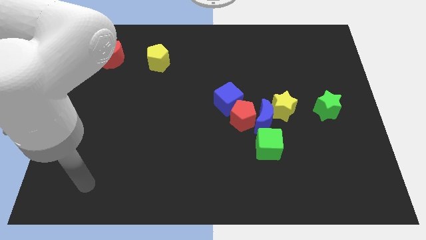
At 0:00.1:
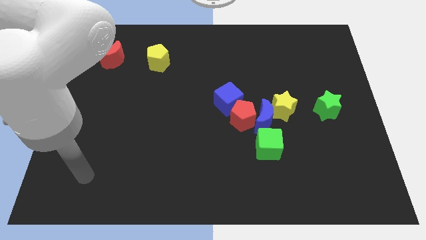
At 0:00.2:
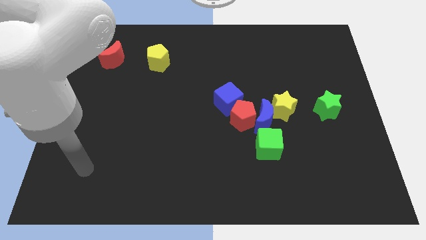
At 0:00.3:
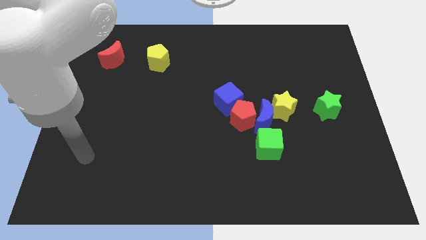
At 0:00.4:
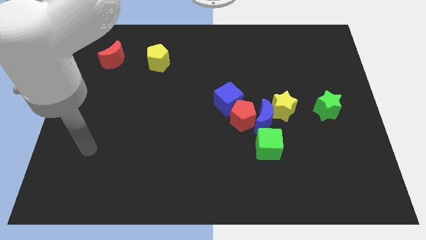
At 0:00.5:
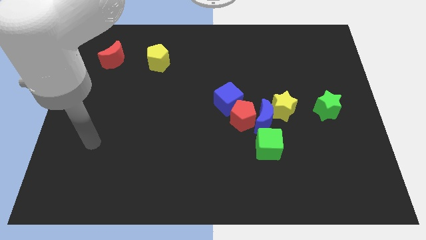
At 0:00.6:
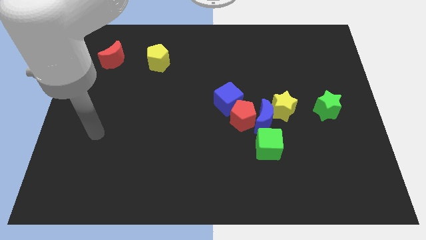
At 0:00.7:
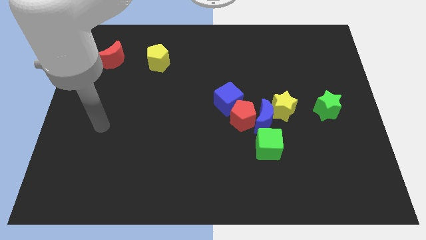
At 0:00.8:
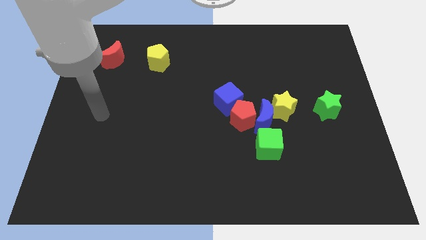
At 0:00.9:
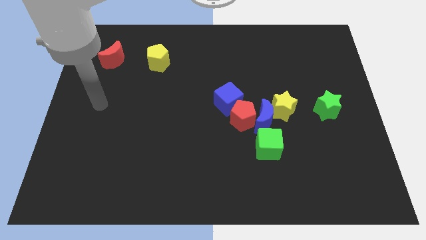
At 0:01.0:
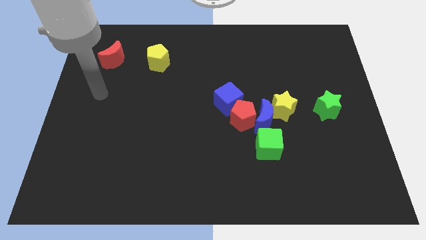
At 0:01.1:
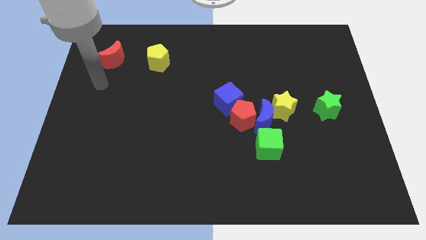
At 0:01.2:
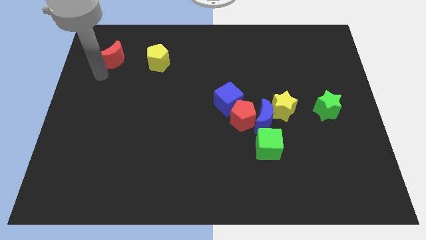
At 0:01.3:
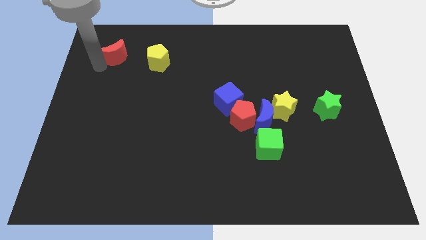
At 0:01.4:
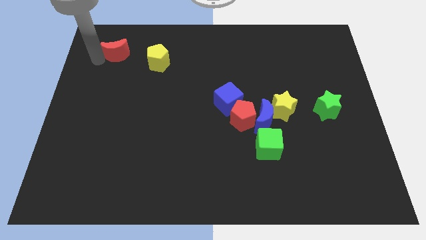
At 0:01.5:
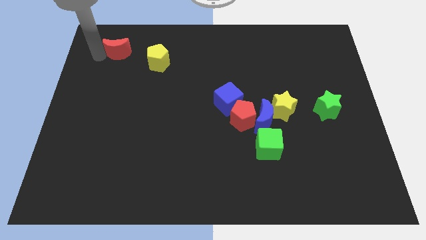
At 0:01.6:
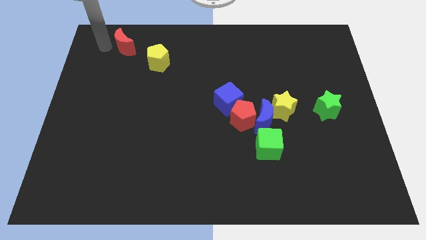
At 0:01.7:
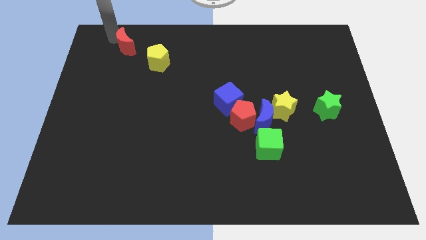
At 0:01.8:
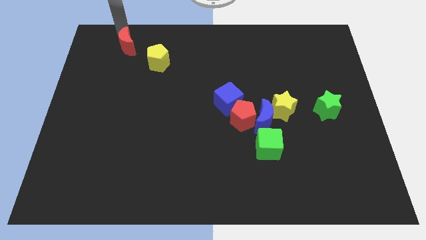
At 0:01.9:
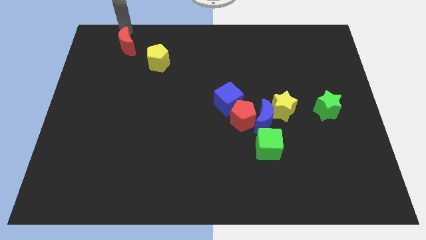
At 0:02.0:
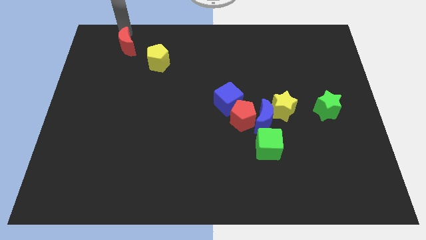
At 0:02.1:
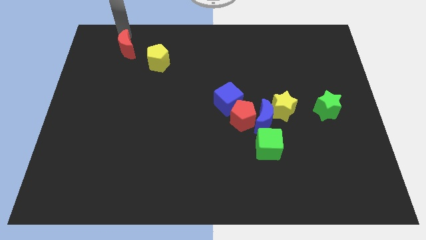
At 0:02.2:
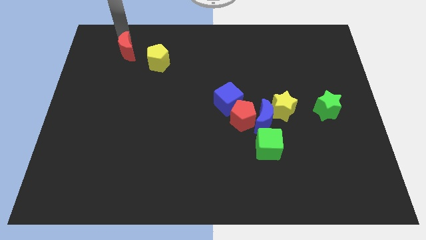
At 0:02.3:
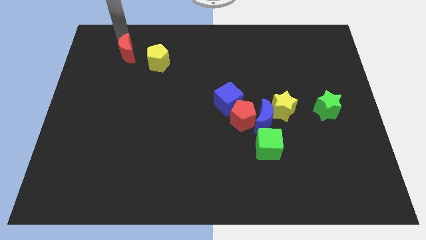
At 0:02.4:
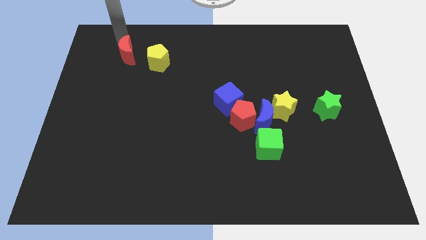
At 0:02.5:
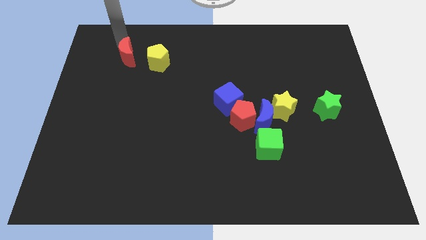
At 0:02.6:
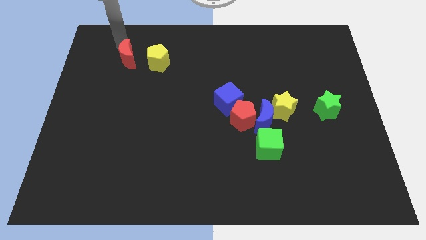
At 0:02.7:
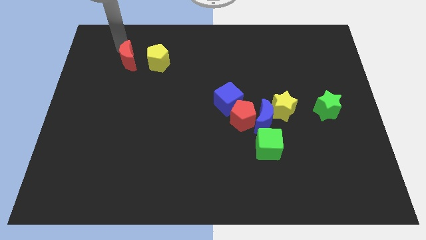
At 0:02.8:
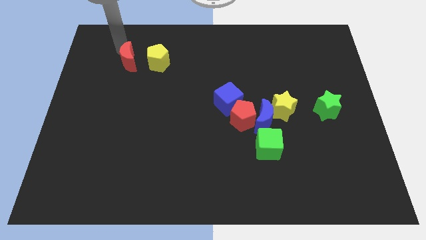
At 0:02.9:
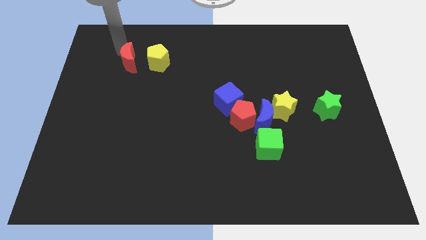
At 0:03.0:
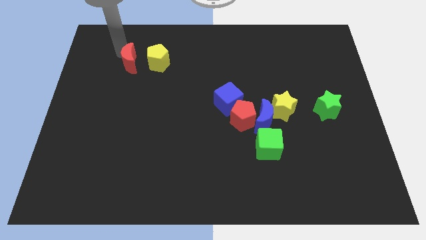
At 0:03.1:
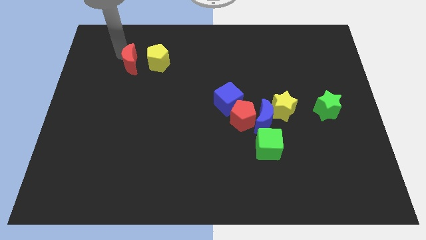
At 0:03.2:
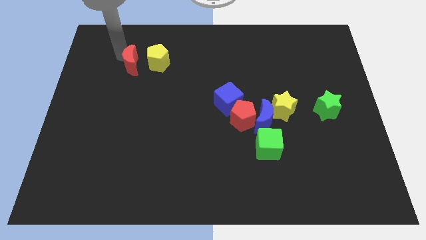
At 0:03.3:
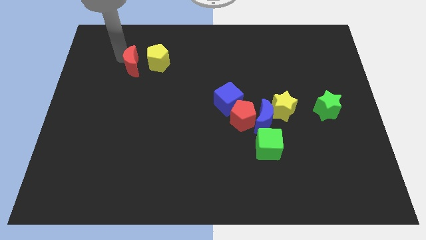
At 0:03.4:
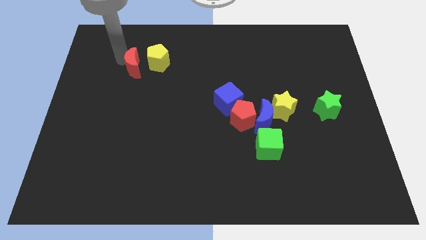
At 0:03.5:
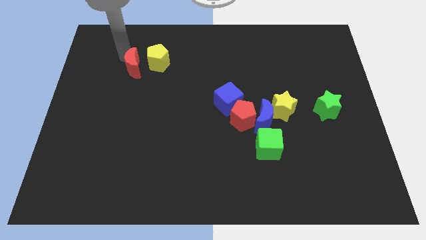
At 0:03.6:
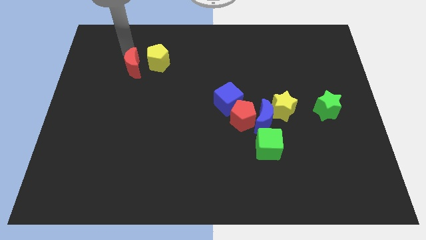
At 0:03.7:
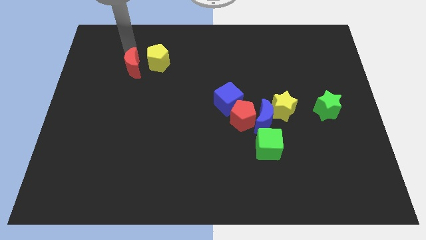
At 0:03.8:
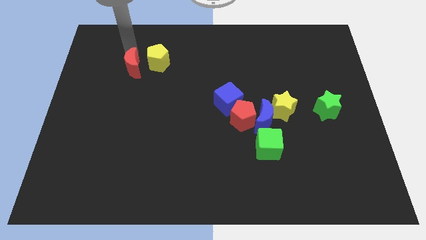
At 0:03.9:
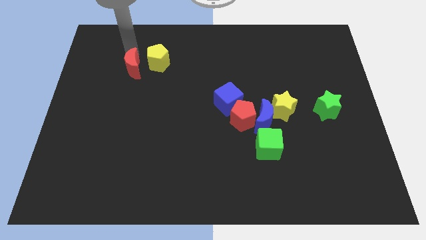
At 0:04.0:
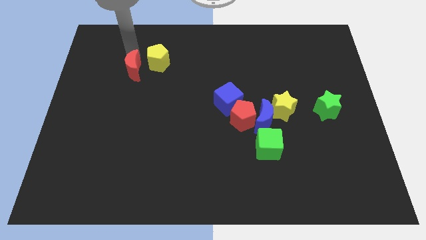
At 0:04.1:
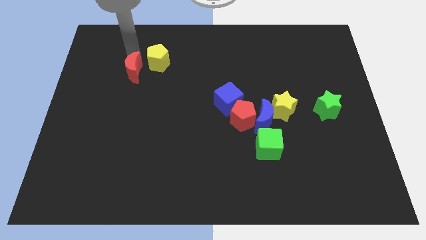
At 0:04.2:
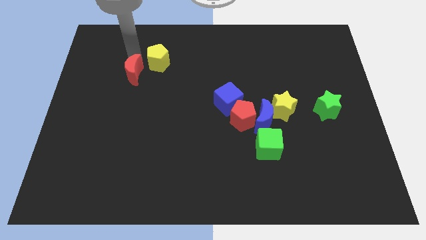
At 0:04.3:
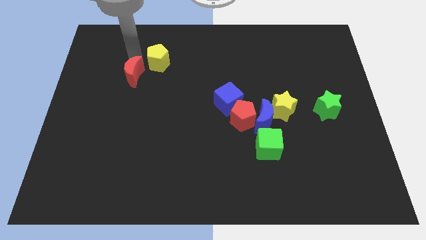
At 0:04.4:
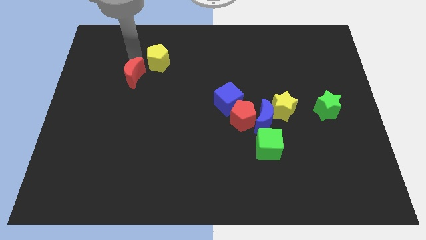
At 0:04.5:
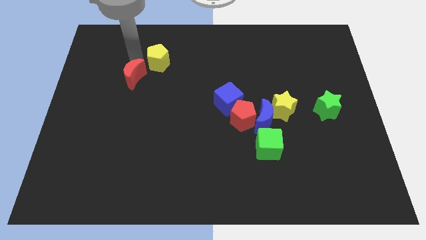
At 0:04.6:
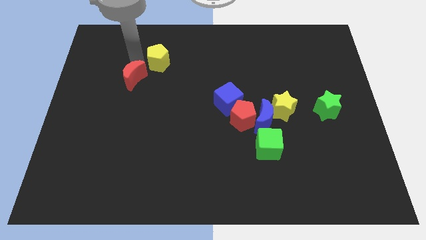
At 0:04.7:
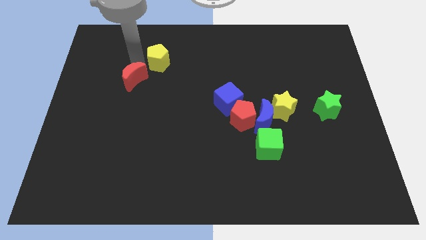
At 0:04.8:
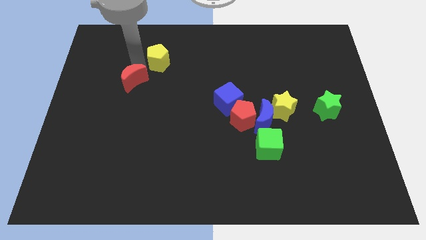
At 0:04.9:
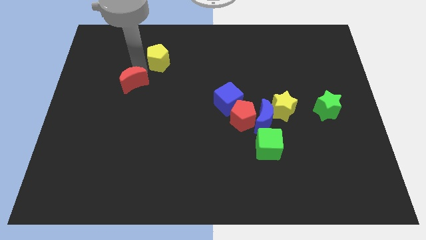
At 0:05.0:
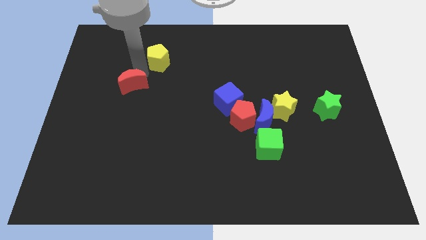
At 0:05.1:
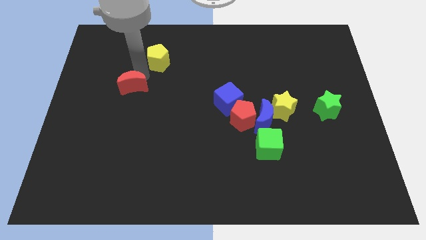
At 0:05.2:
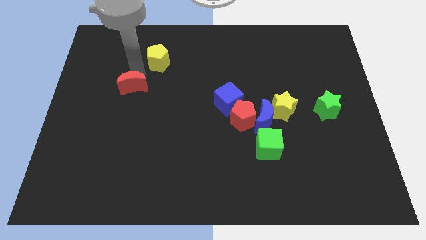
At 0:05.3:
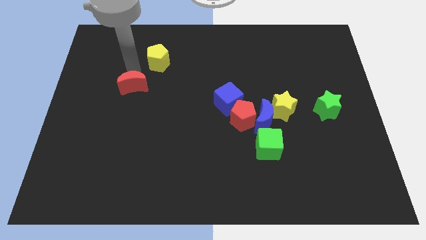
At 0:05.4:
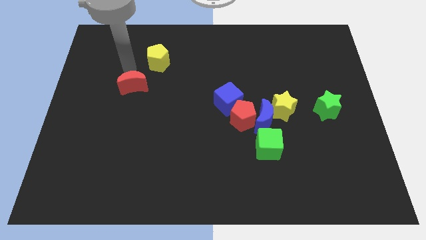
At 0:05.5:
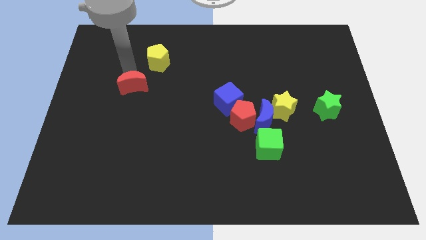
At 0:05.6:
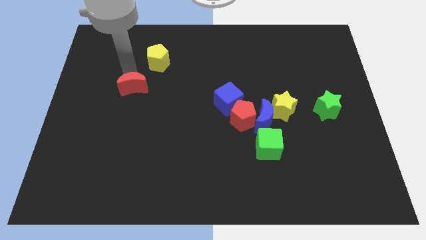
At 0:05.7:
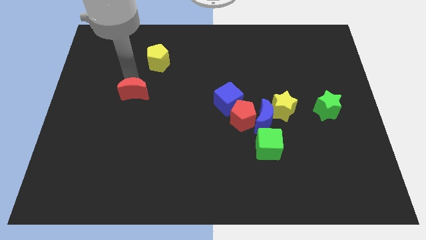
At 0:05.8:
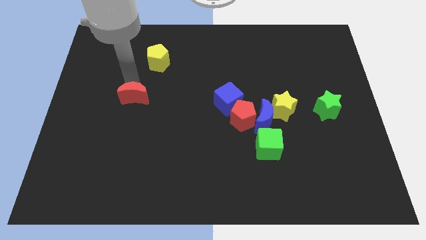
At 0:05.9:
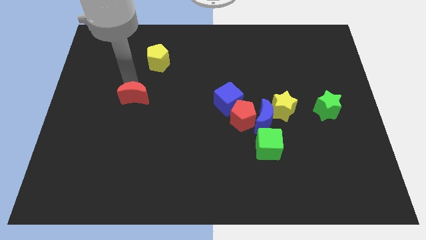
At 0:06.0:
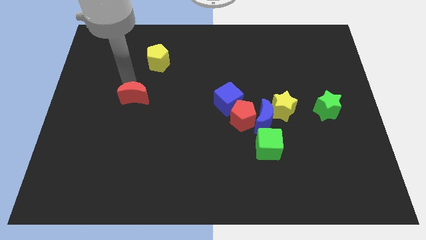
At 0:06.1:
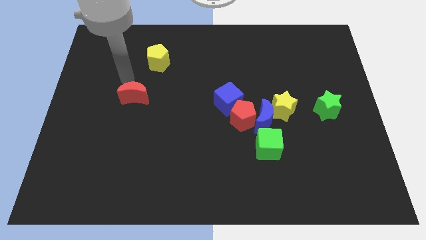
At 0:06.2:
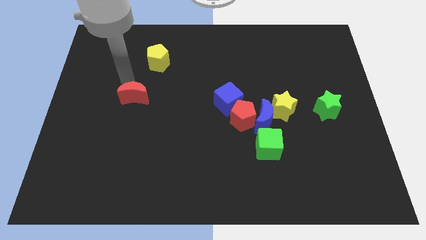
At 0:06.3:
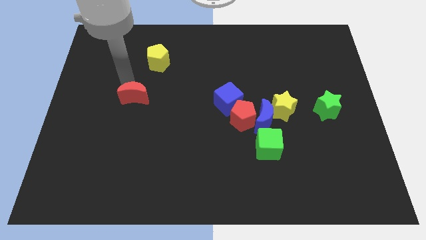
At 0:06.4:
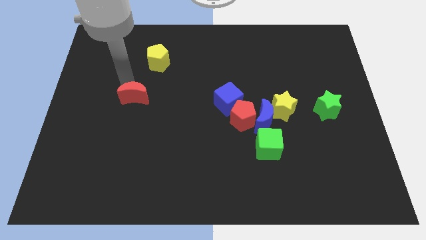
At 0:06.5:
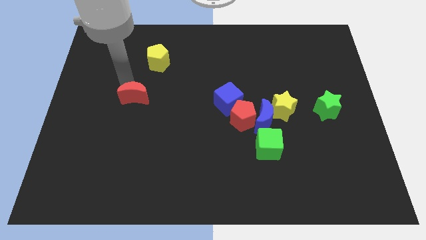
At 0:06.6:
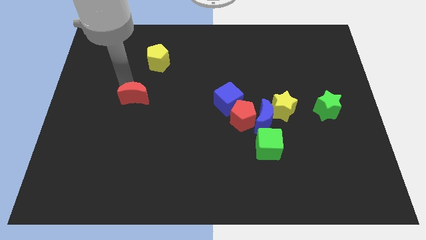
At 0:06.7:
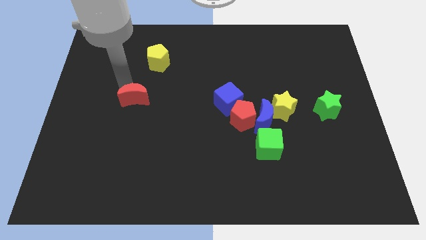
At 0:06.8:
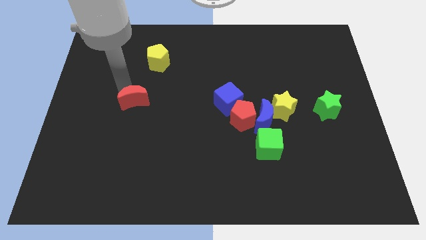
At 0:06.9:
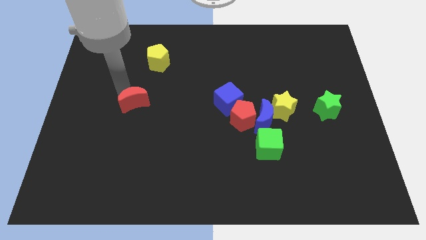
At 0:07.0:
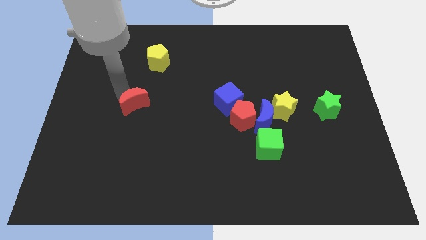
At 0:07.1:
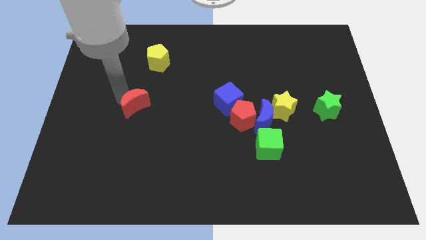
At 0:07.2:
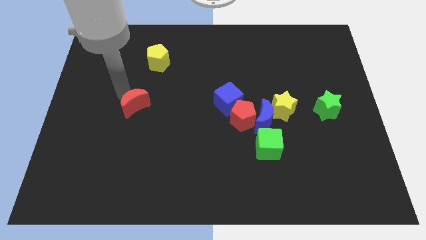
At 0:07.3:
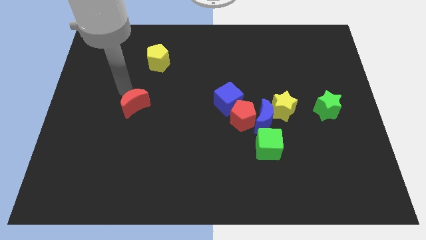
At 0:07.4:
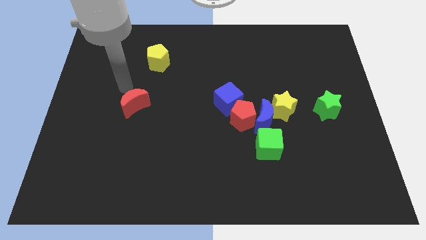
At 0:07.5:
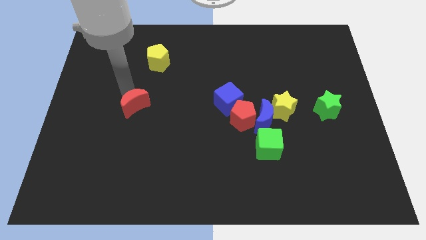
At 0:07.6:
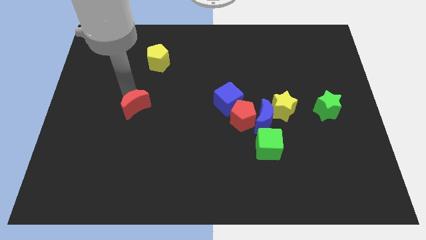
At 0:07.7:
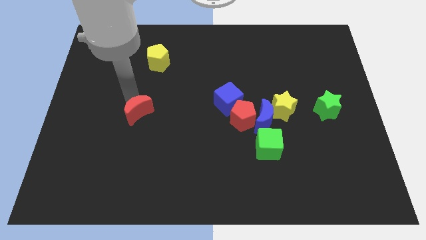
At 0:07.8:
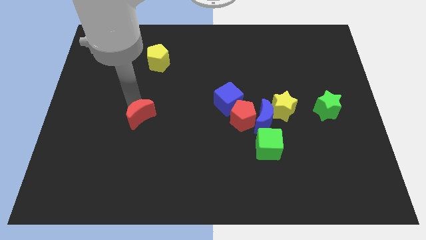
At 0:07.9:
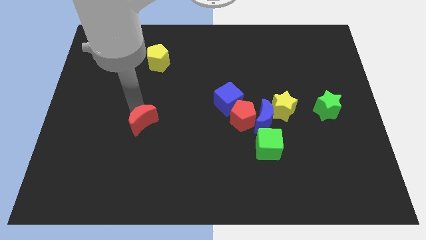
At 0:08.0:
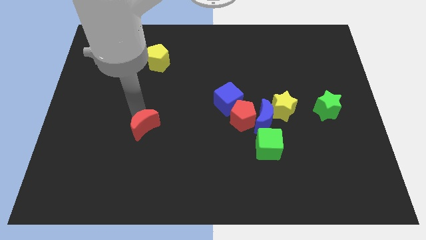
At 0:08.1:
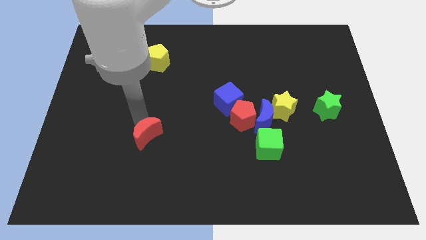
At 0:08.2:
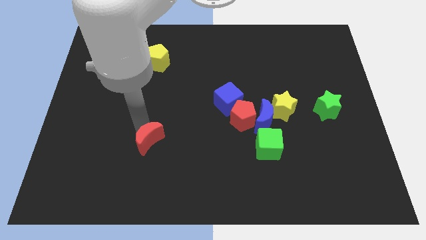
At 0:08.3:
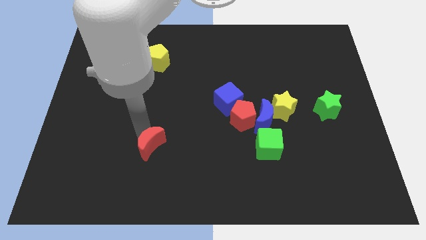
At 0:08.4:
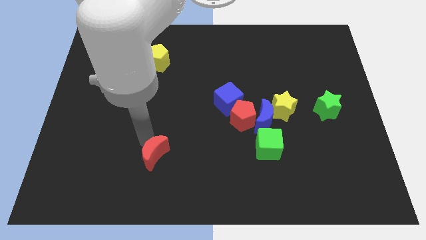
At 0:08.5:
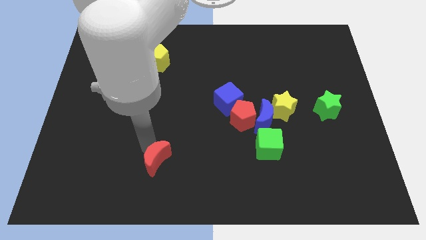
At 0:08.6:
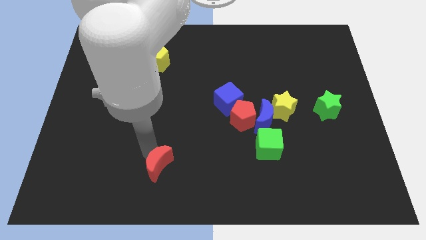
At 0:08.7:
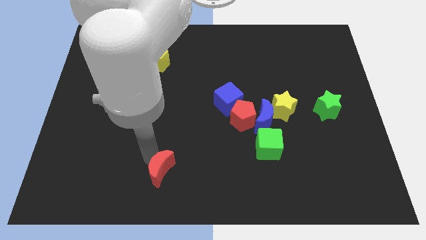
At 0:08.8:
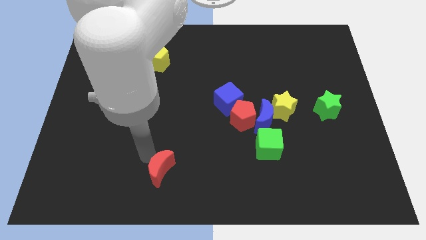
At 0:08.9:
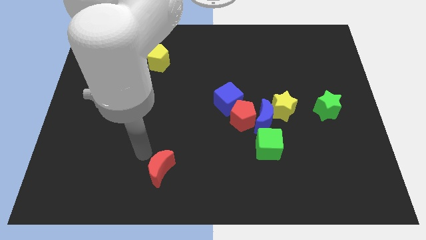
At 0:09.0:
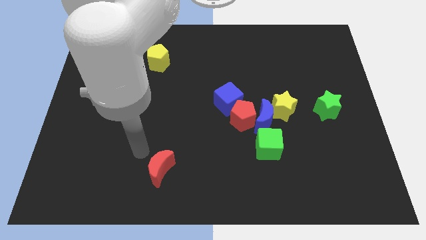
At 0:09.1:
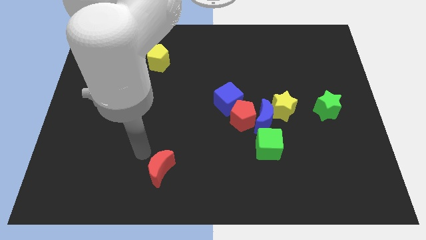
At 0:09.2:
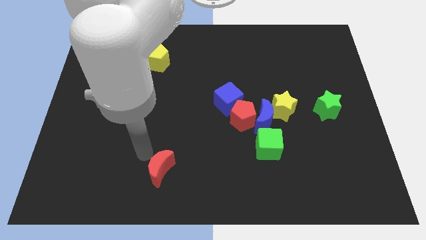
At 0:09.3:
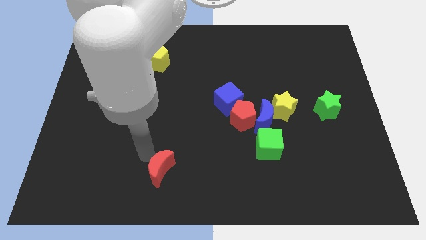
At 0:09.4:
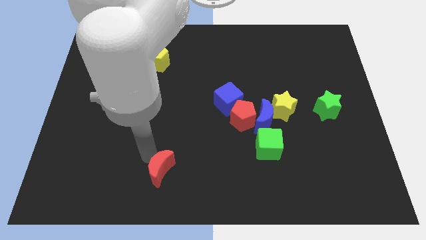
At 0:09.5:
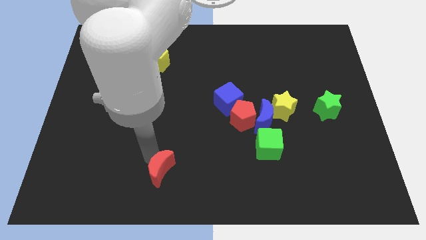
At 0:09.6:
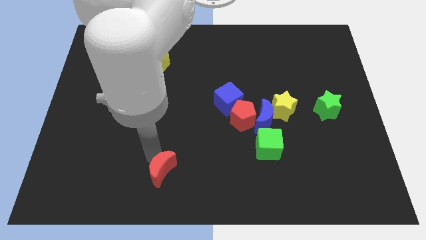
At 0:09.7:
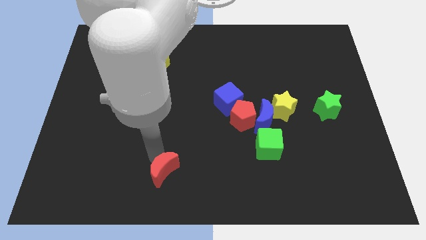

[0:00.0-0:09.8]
move the red moon to the bottom side
